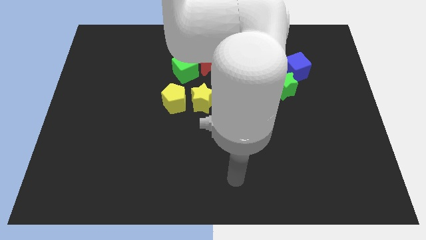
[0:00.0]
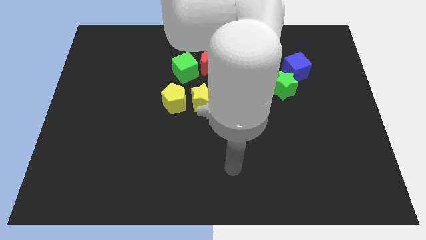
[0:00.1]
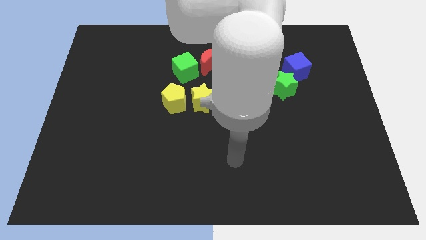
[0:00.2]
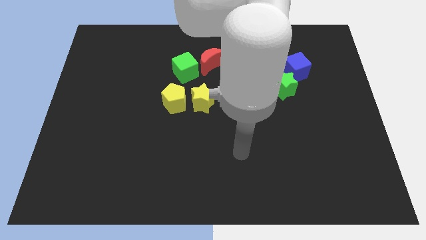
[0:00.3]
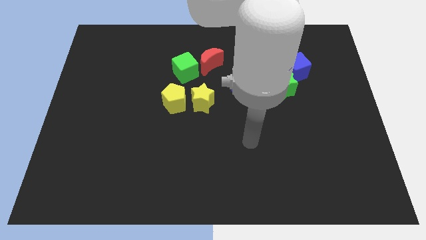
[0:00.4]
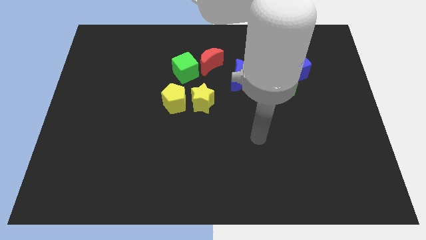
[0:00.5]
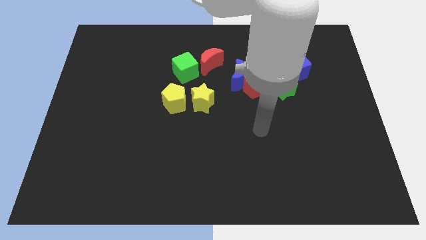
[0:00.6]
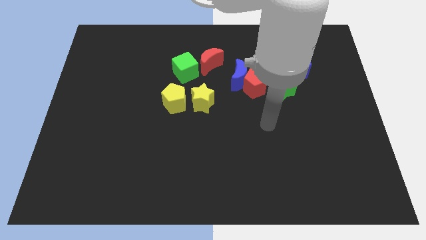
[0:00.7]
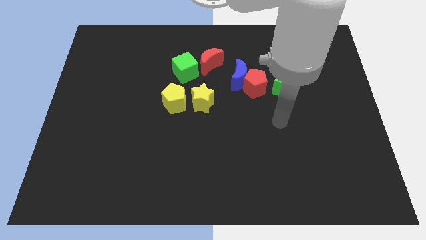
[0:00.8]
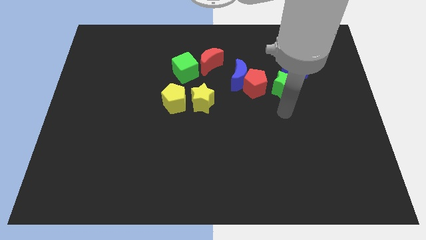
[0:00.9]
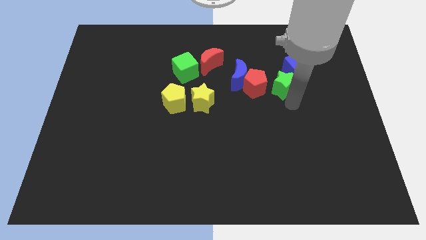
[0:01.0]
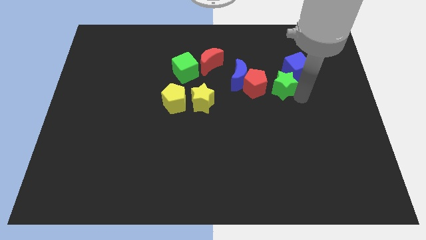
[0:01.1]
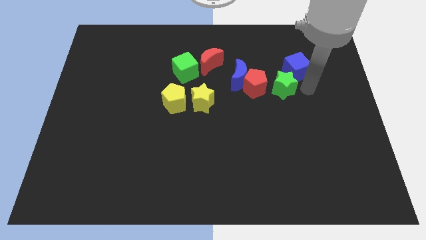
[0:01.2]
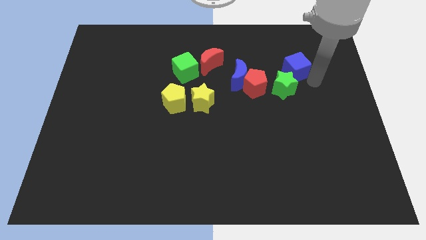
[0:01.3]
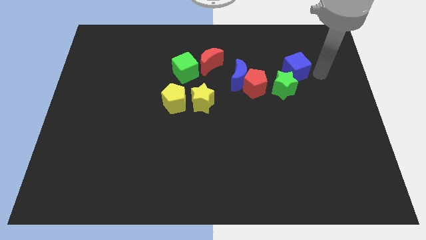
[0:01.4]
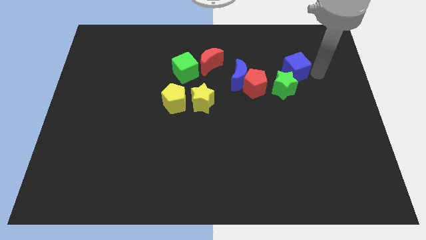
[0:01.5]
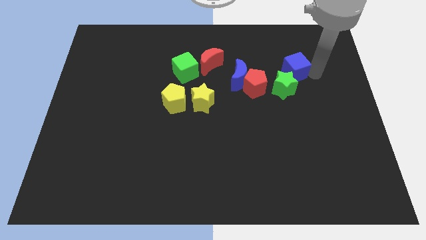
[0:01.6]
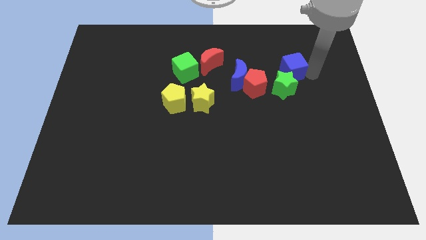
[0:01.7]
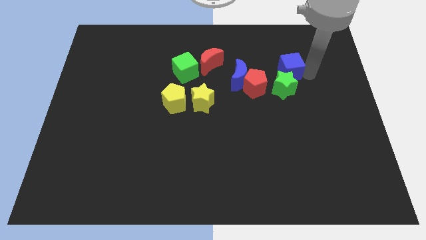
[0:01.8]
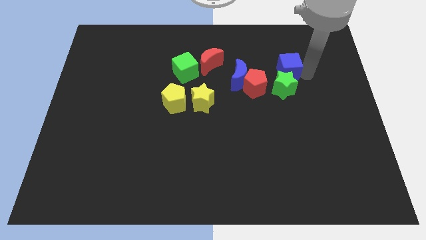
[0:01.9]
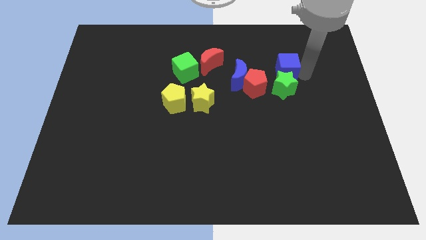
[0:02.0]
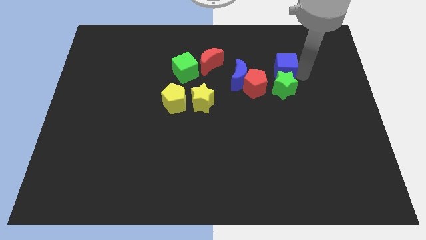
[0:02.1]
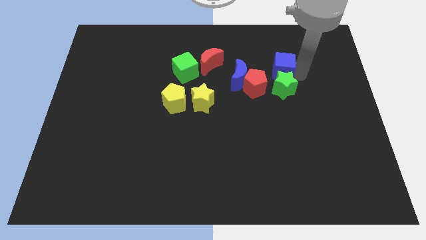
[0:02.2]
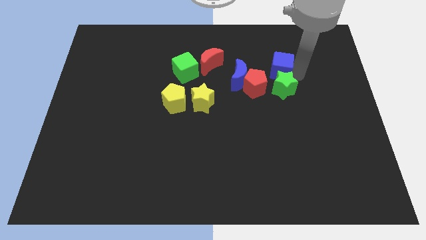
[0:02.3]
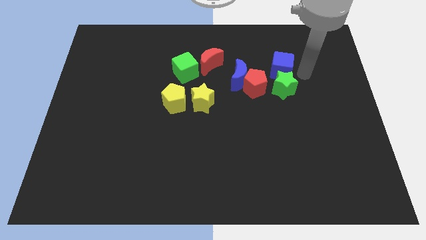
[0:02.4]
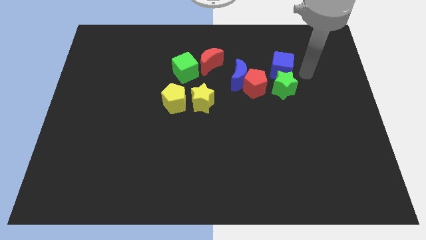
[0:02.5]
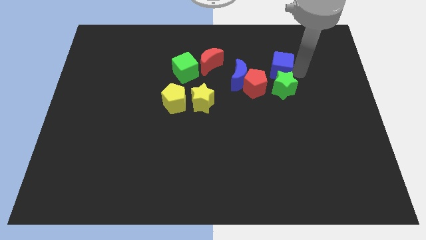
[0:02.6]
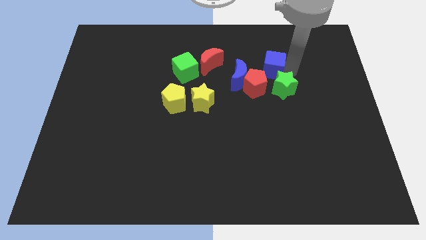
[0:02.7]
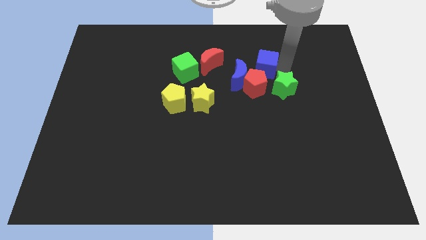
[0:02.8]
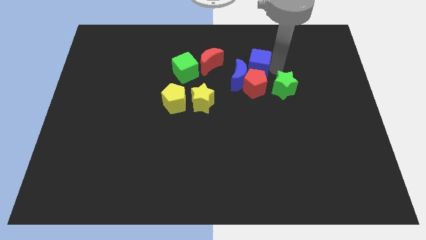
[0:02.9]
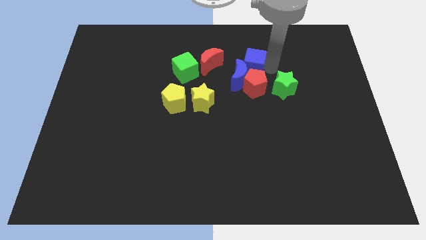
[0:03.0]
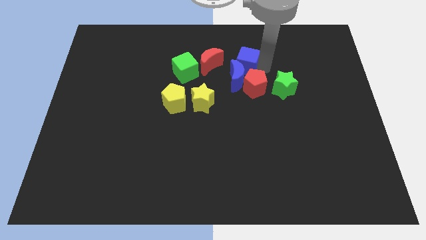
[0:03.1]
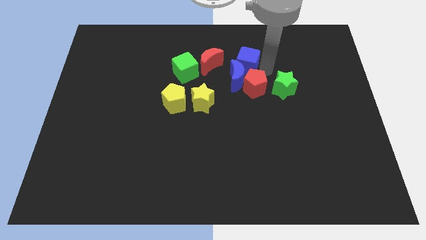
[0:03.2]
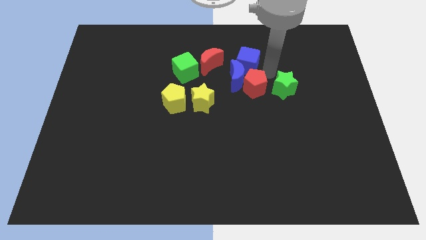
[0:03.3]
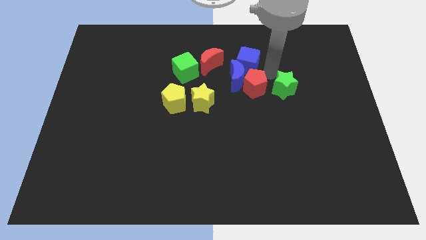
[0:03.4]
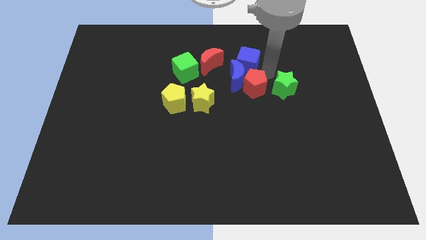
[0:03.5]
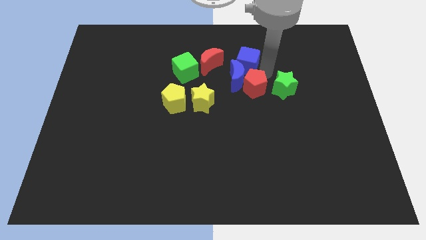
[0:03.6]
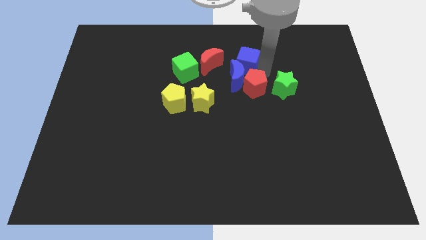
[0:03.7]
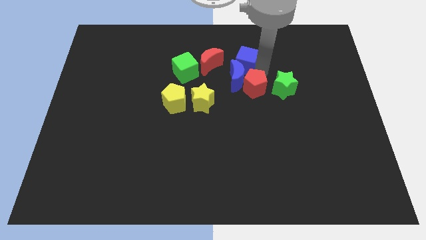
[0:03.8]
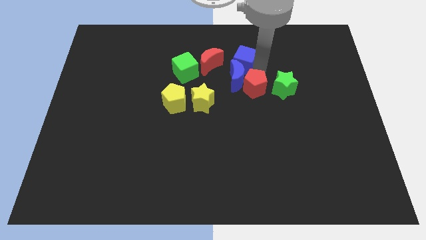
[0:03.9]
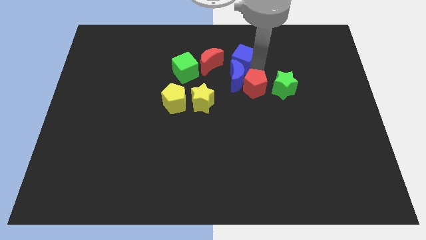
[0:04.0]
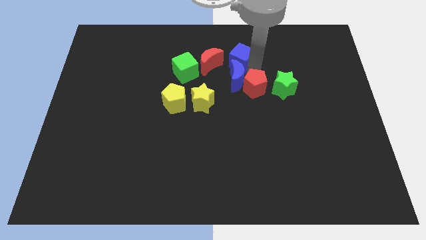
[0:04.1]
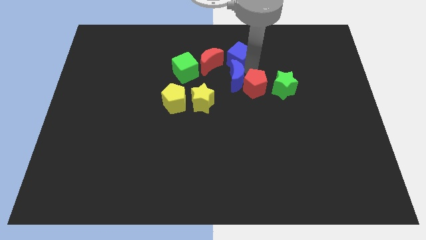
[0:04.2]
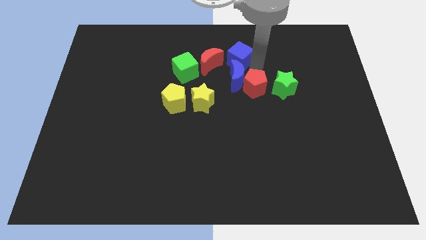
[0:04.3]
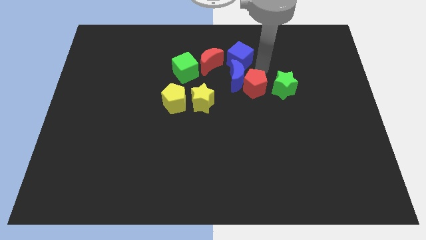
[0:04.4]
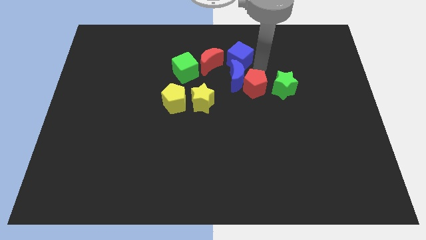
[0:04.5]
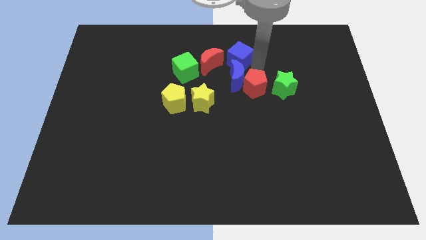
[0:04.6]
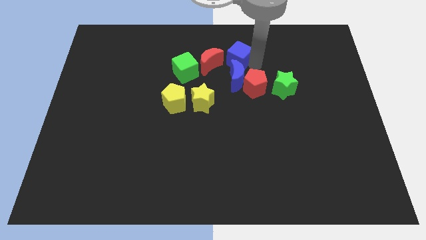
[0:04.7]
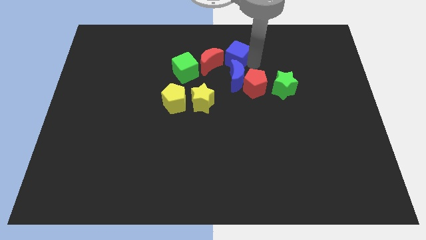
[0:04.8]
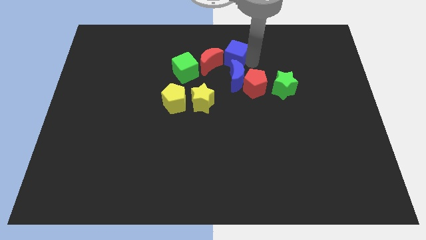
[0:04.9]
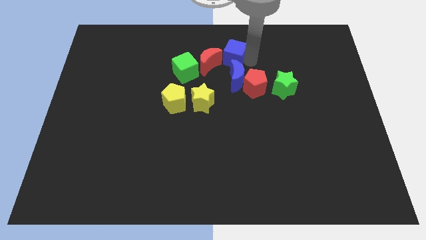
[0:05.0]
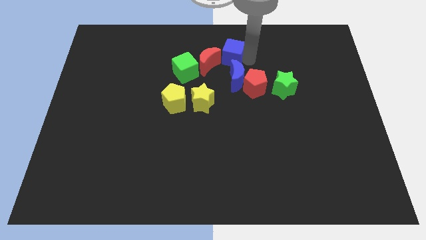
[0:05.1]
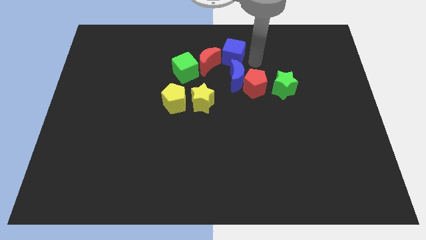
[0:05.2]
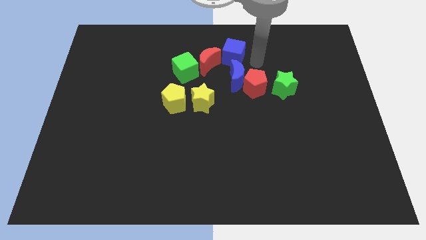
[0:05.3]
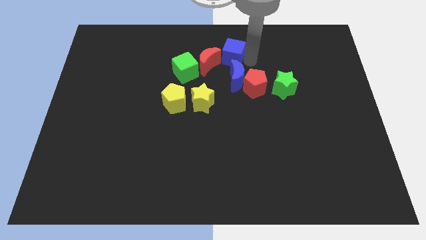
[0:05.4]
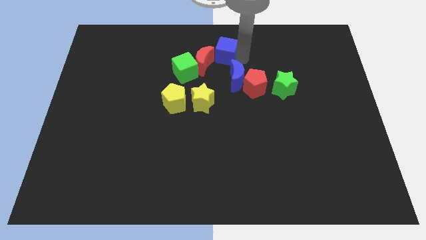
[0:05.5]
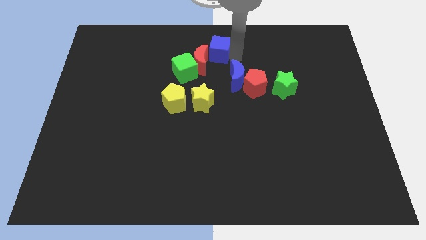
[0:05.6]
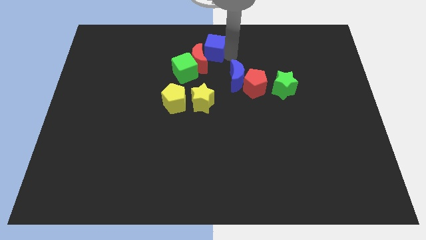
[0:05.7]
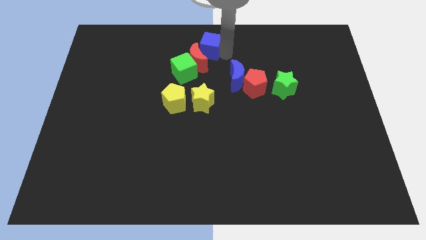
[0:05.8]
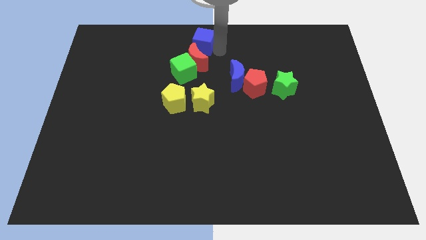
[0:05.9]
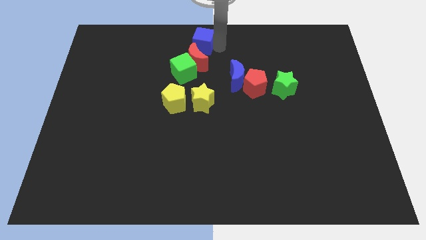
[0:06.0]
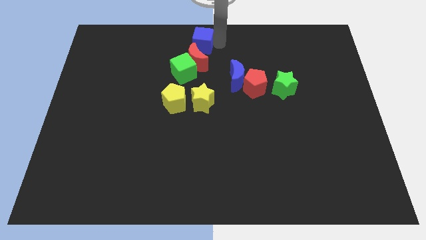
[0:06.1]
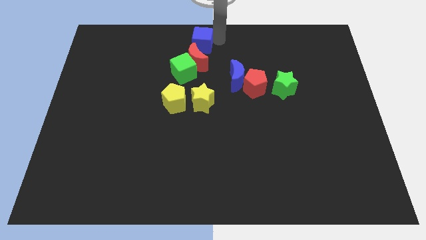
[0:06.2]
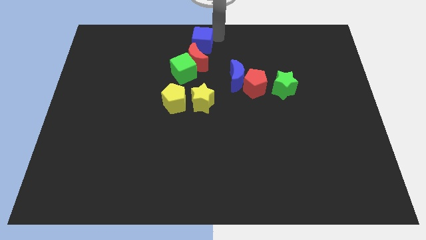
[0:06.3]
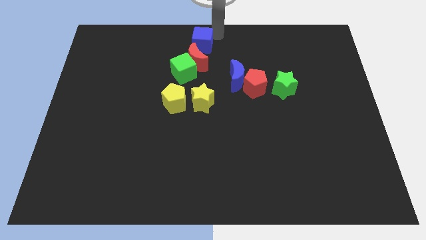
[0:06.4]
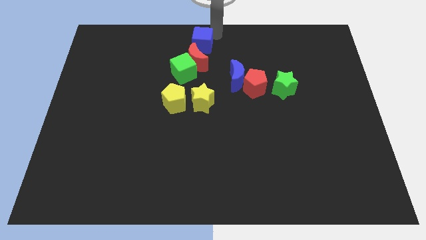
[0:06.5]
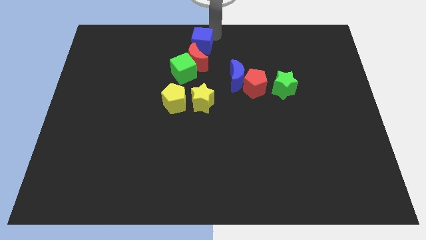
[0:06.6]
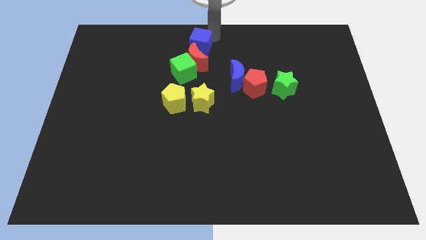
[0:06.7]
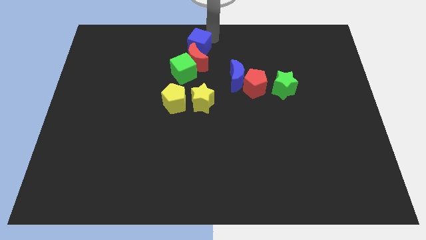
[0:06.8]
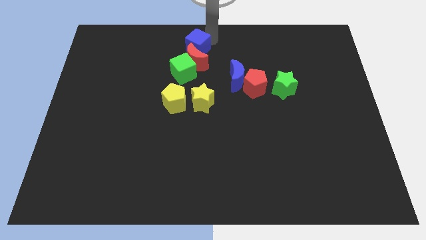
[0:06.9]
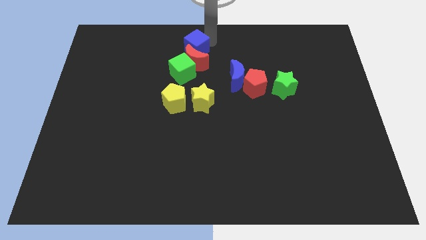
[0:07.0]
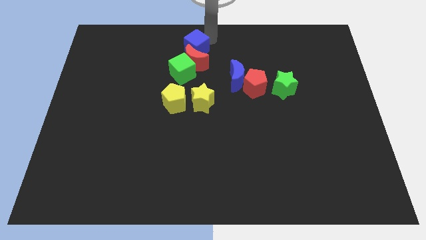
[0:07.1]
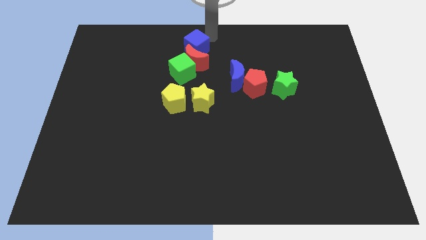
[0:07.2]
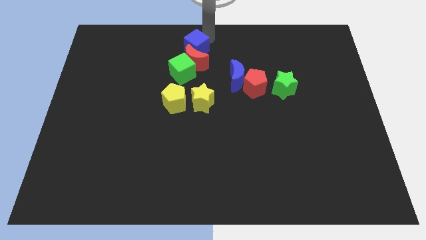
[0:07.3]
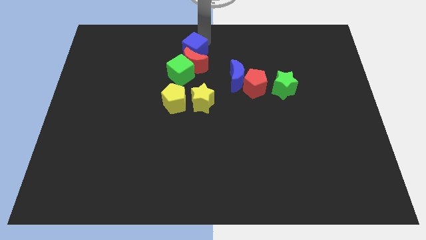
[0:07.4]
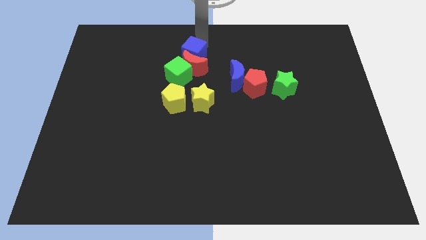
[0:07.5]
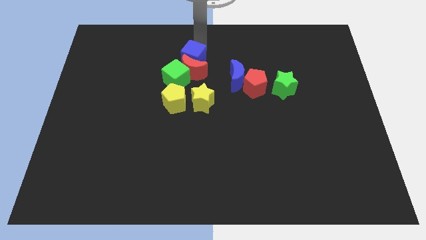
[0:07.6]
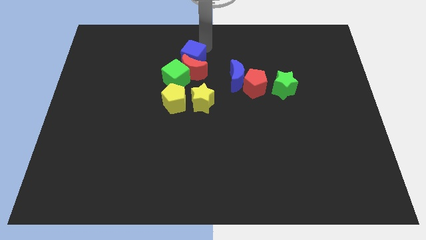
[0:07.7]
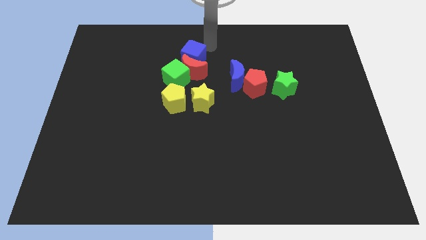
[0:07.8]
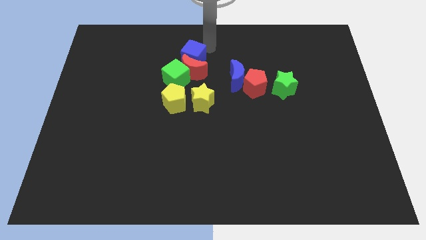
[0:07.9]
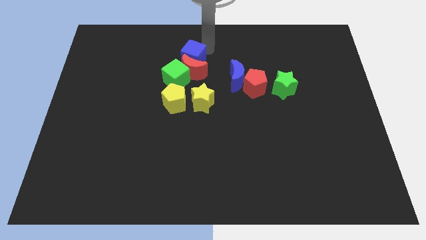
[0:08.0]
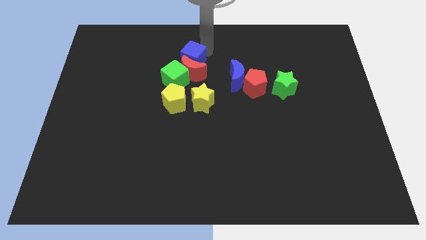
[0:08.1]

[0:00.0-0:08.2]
put the blue cube to the top of the yellow pentagon
